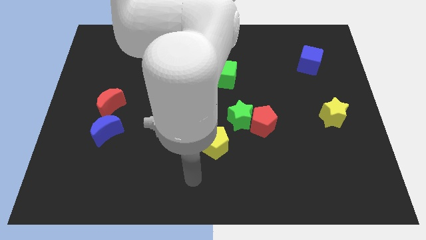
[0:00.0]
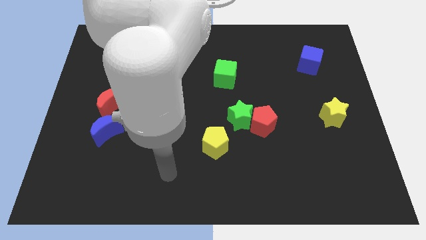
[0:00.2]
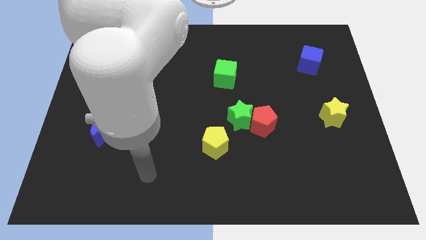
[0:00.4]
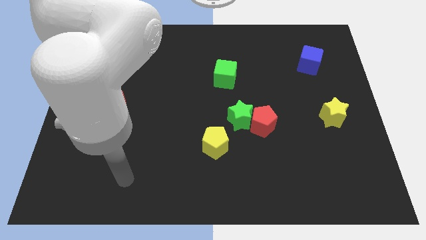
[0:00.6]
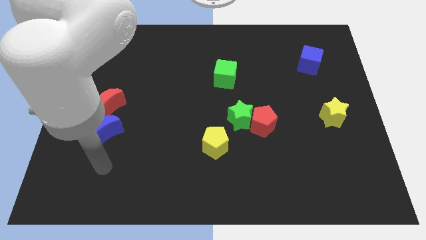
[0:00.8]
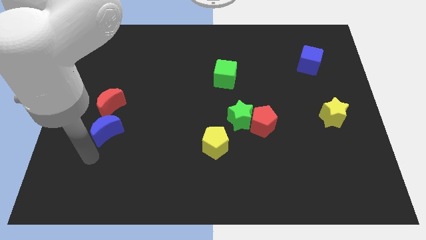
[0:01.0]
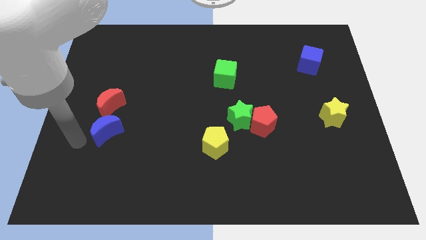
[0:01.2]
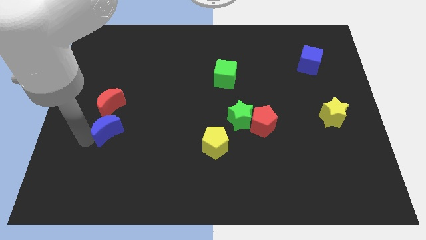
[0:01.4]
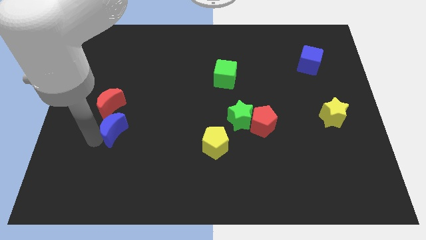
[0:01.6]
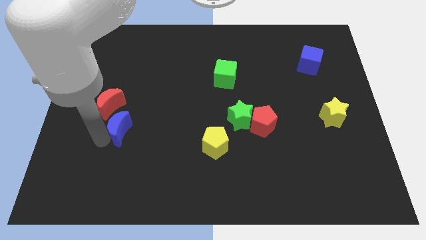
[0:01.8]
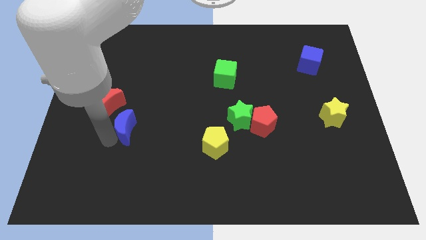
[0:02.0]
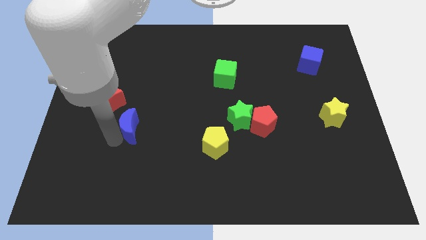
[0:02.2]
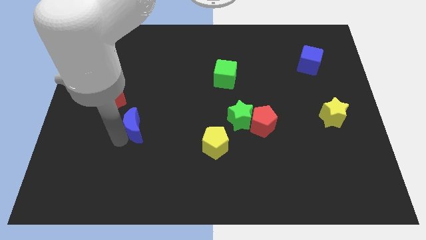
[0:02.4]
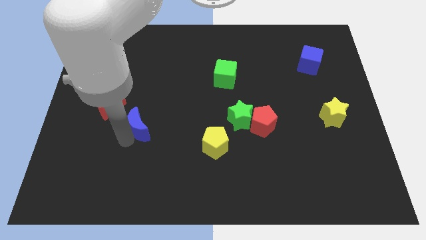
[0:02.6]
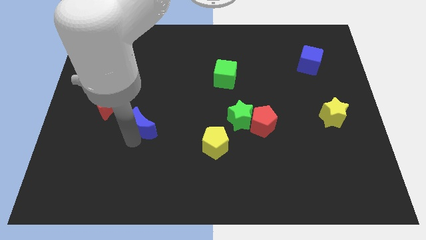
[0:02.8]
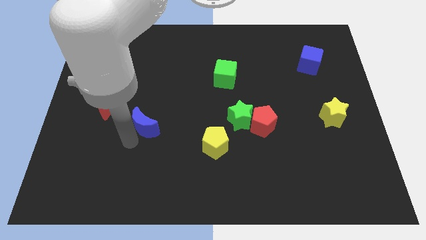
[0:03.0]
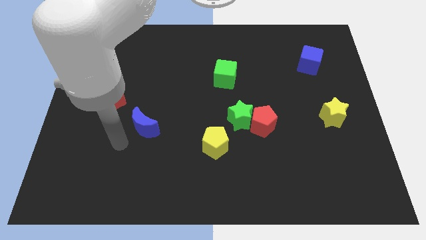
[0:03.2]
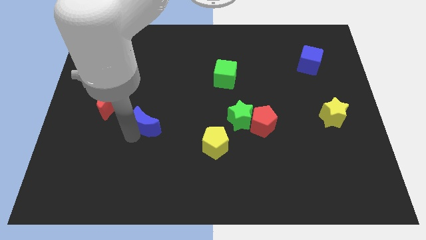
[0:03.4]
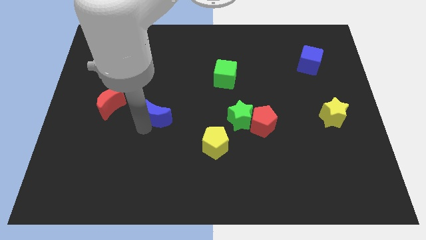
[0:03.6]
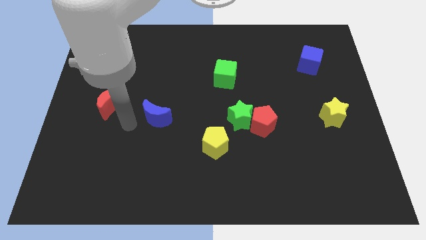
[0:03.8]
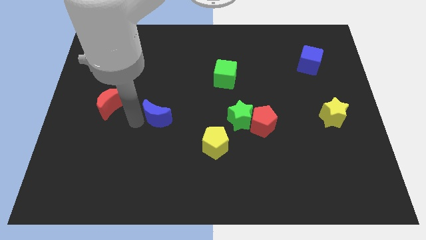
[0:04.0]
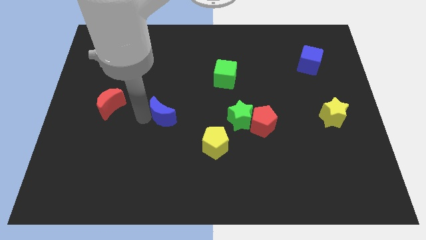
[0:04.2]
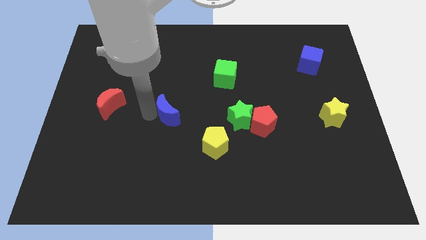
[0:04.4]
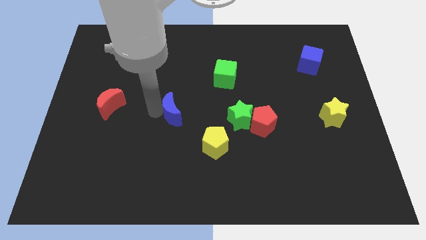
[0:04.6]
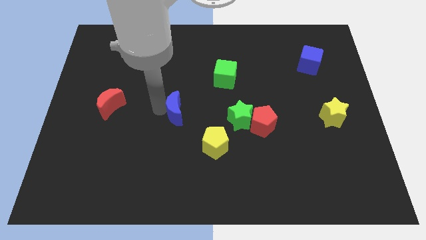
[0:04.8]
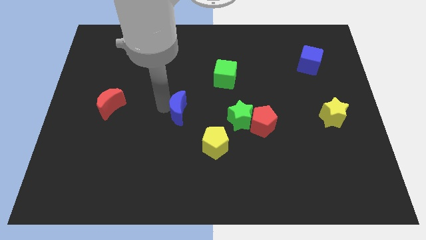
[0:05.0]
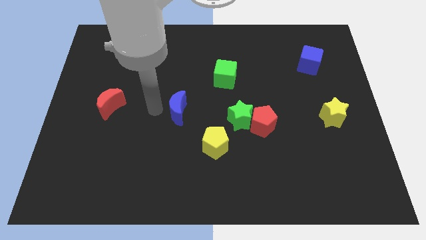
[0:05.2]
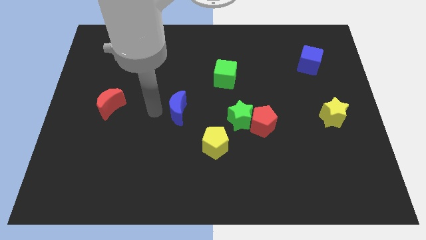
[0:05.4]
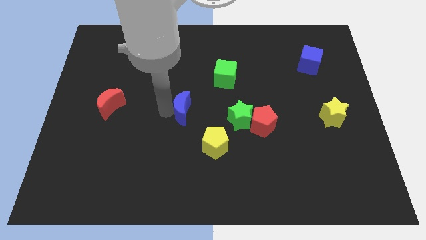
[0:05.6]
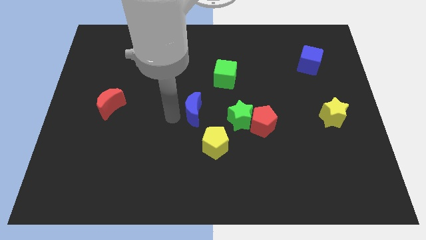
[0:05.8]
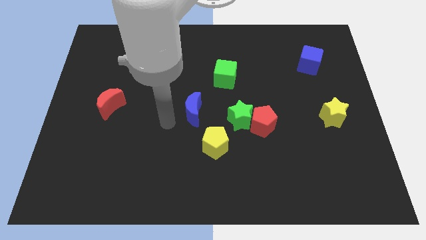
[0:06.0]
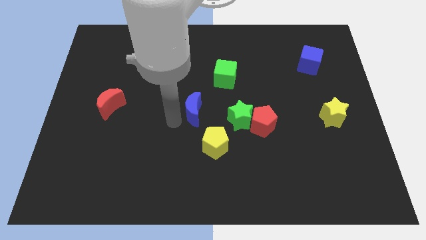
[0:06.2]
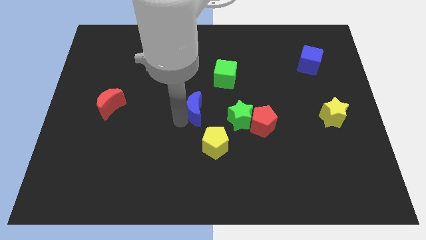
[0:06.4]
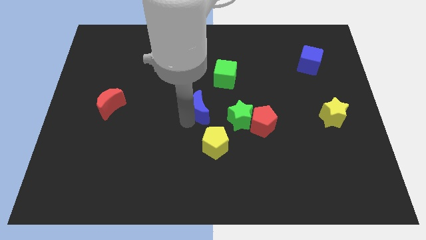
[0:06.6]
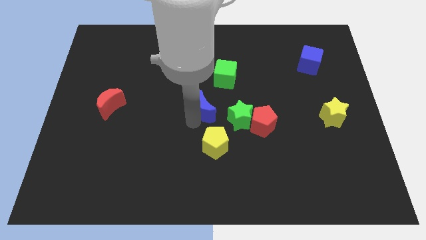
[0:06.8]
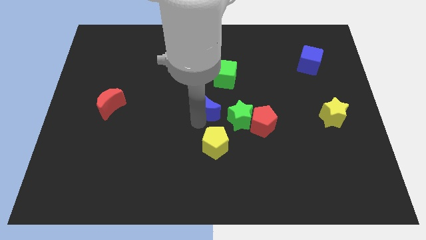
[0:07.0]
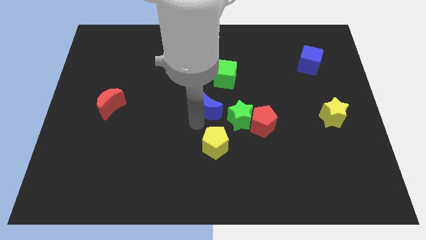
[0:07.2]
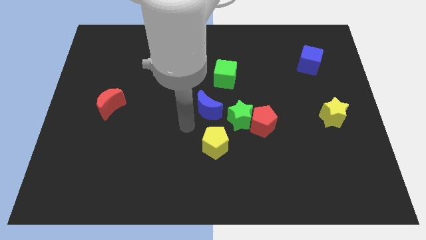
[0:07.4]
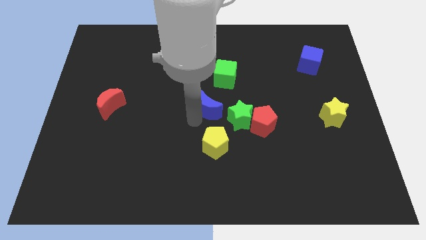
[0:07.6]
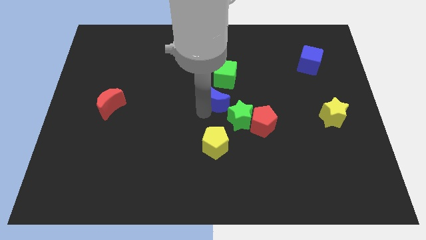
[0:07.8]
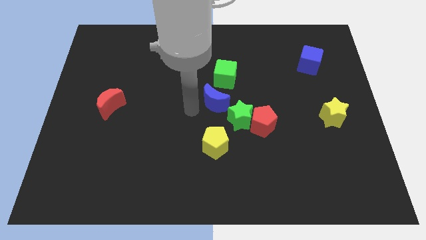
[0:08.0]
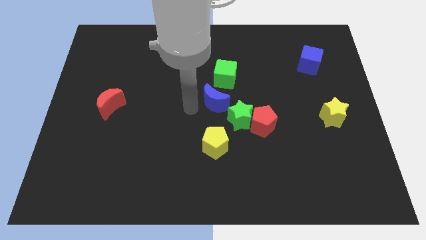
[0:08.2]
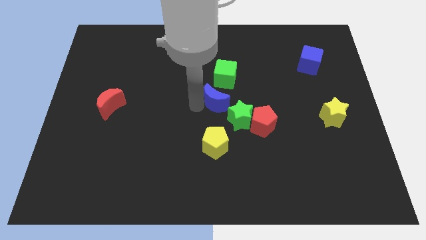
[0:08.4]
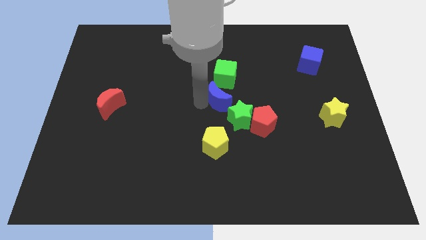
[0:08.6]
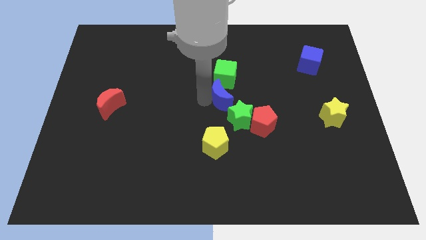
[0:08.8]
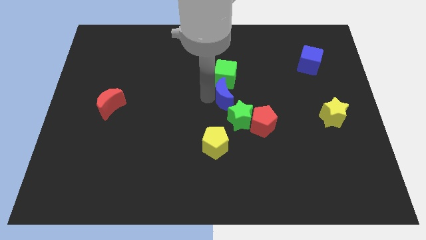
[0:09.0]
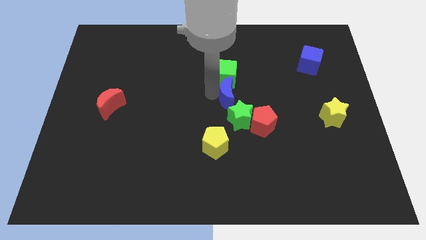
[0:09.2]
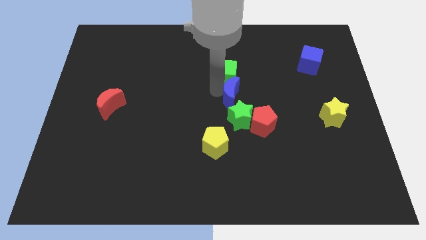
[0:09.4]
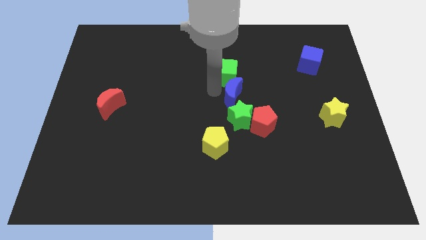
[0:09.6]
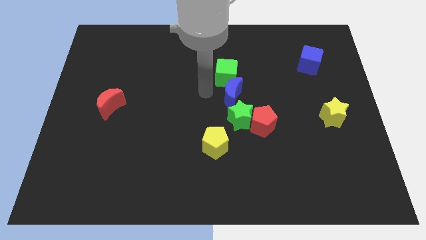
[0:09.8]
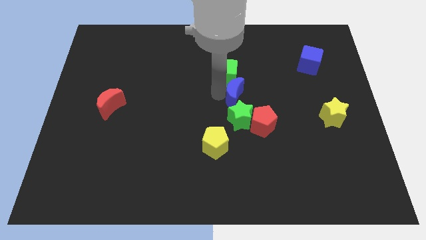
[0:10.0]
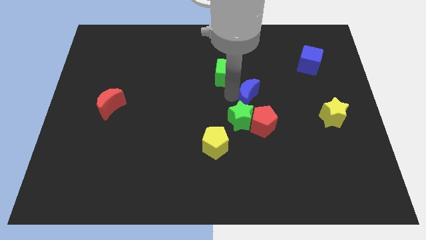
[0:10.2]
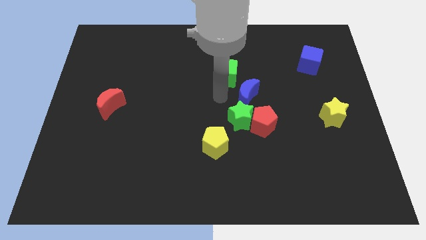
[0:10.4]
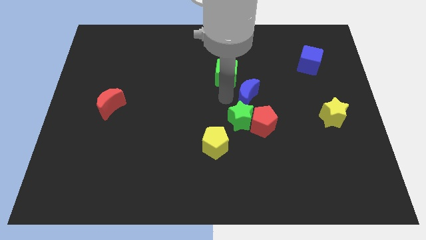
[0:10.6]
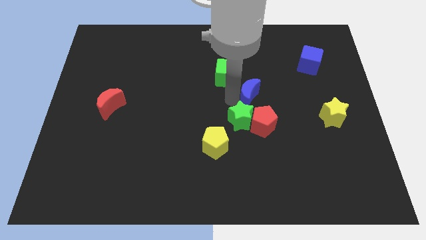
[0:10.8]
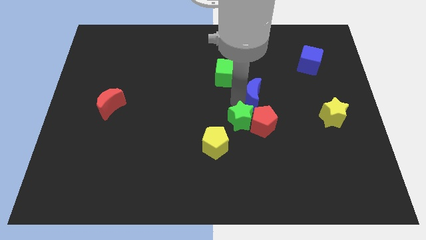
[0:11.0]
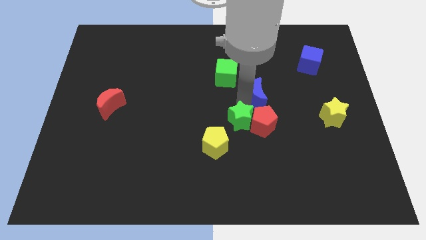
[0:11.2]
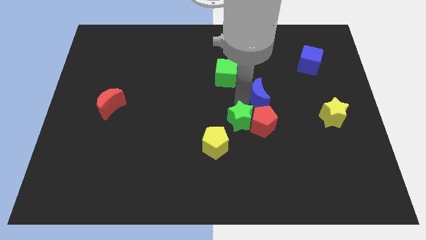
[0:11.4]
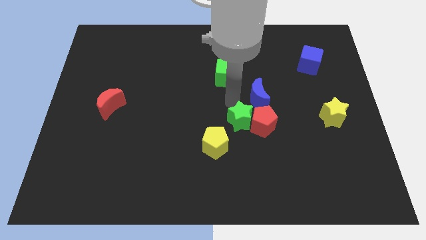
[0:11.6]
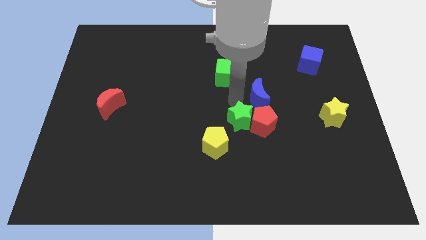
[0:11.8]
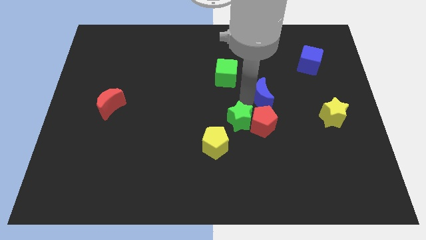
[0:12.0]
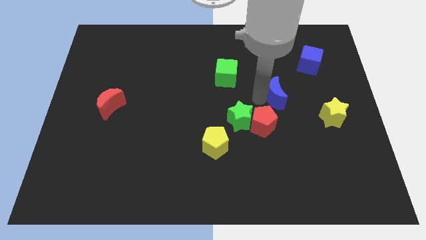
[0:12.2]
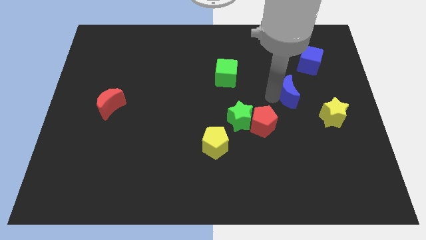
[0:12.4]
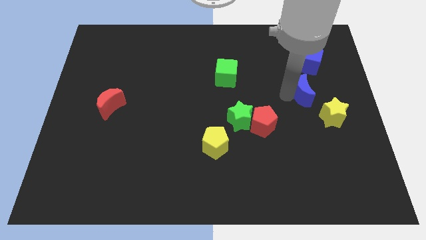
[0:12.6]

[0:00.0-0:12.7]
put the blue moon below the blue cube

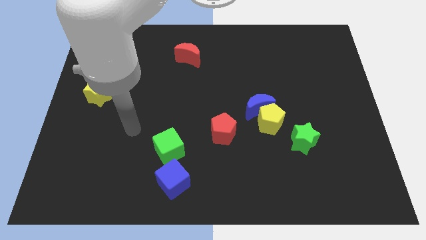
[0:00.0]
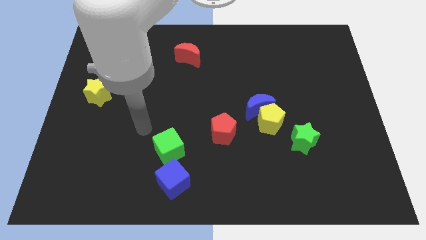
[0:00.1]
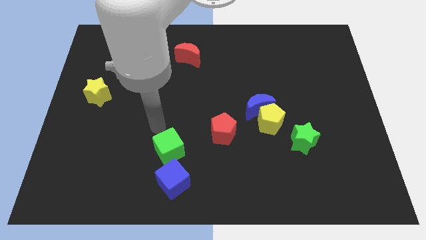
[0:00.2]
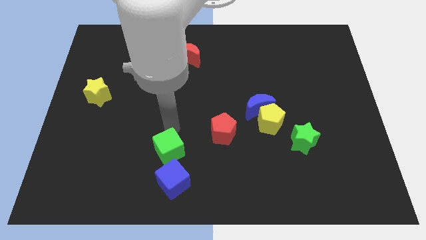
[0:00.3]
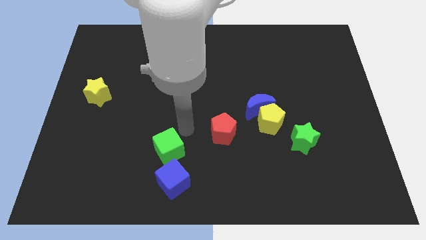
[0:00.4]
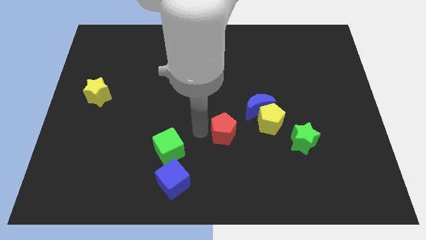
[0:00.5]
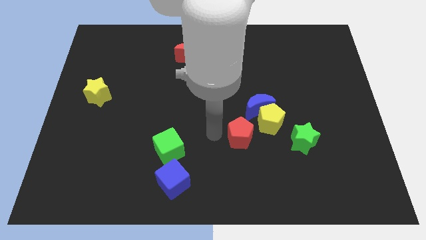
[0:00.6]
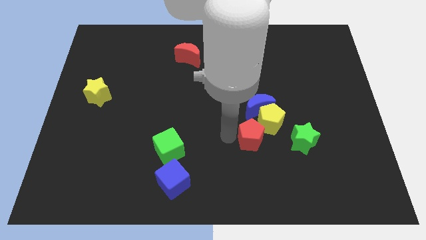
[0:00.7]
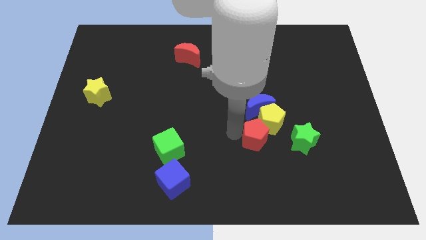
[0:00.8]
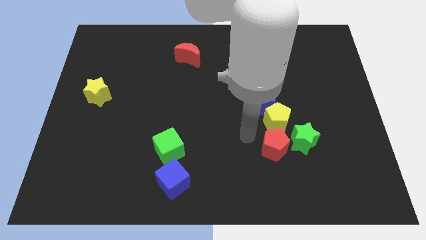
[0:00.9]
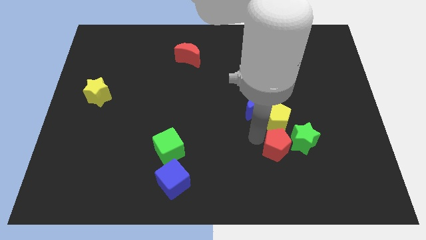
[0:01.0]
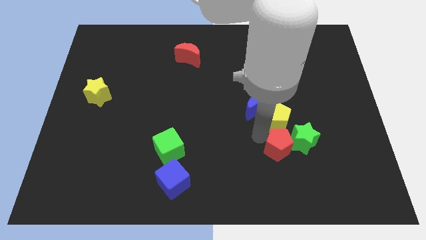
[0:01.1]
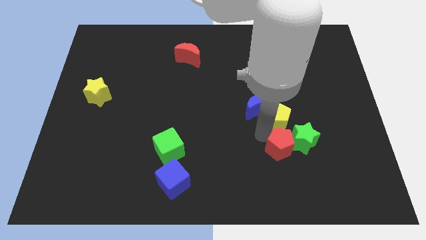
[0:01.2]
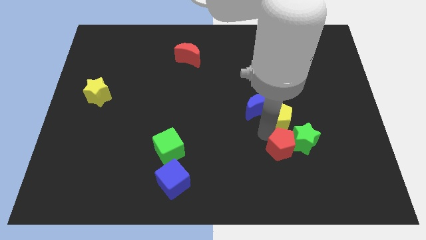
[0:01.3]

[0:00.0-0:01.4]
move the yellow pentagon above the green star
